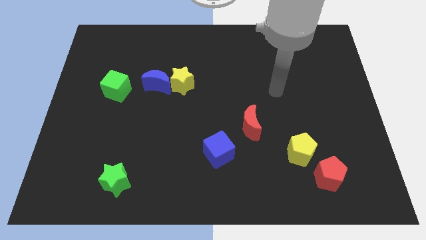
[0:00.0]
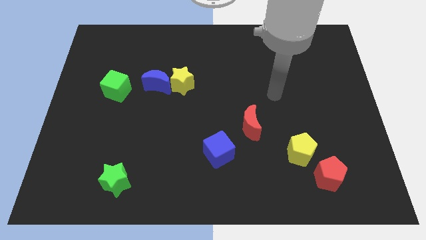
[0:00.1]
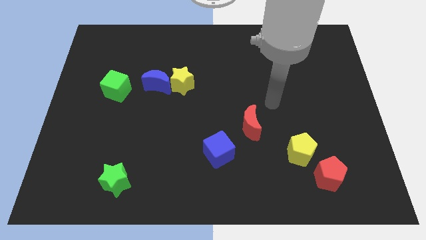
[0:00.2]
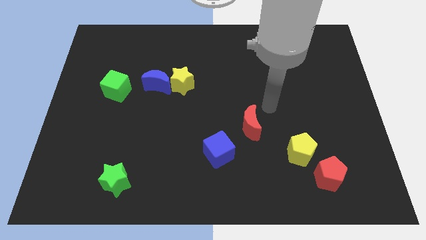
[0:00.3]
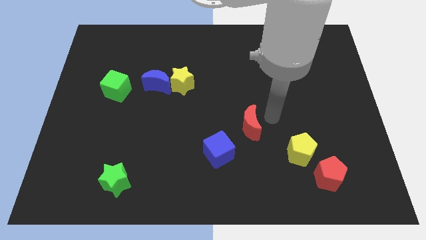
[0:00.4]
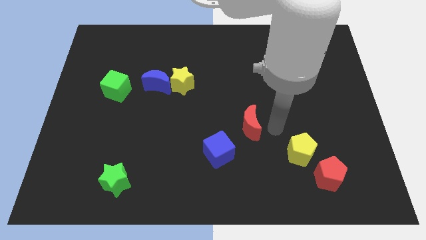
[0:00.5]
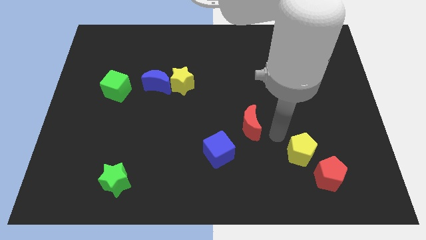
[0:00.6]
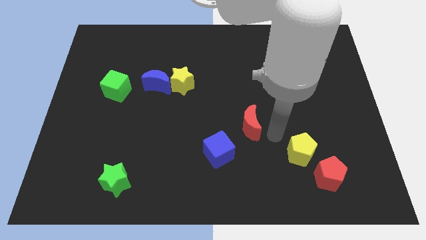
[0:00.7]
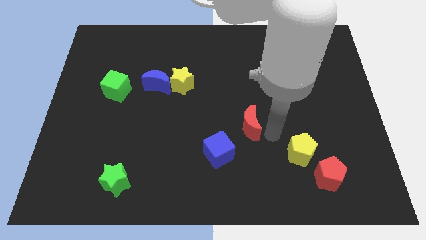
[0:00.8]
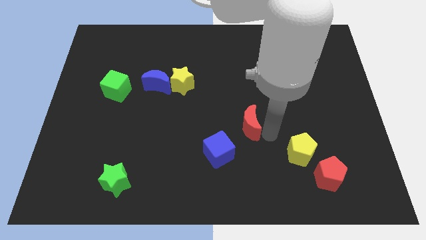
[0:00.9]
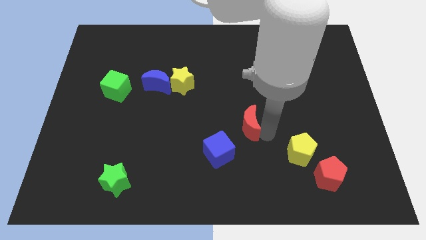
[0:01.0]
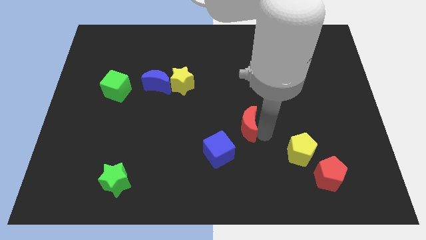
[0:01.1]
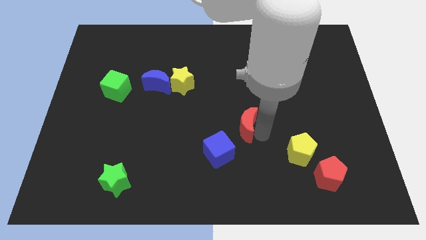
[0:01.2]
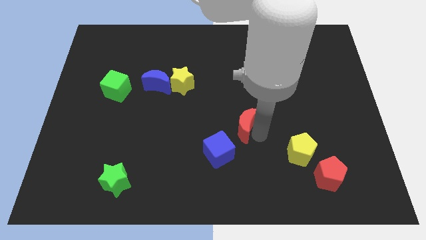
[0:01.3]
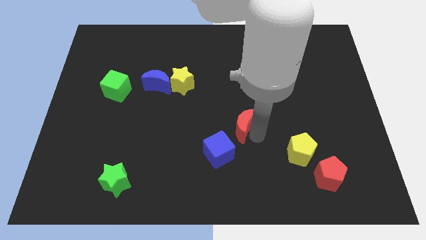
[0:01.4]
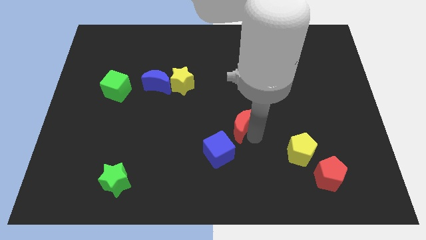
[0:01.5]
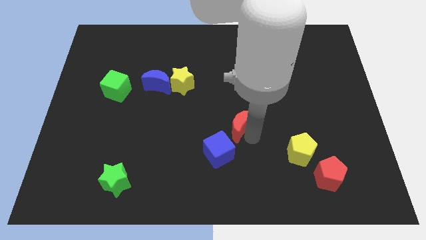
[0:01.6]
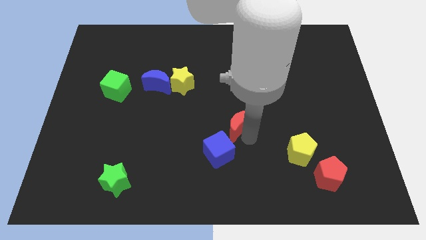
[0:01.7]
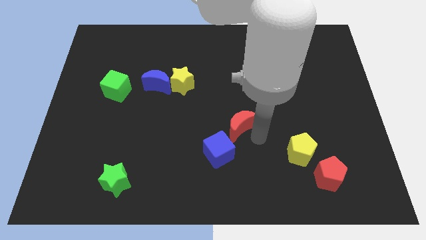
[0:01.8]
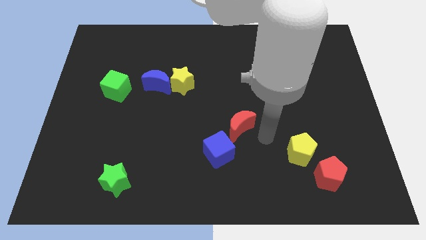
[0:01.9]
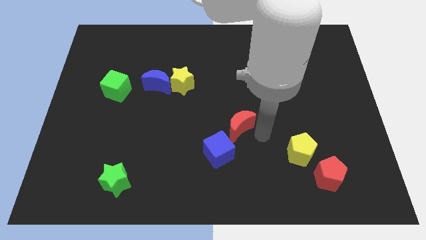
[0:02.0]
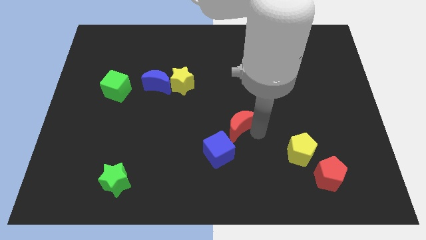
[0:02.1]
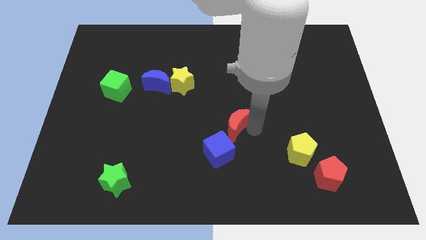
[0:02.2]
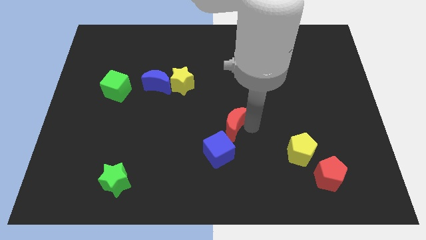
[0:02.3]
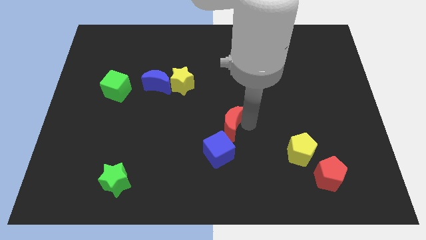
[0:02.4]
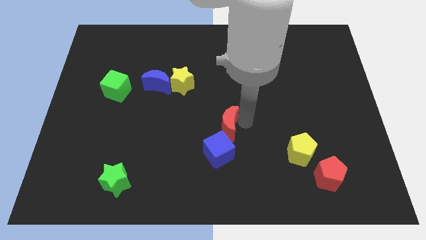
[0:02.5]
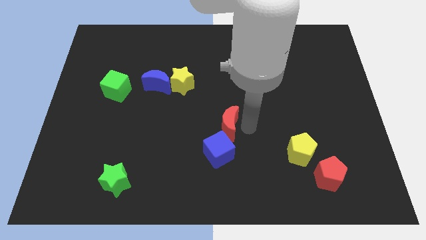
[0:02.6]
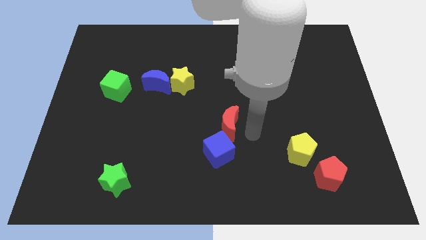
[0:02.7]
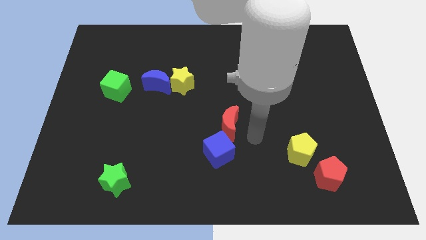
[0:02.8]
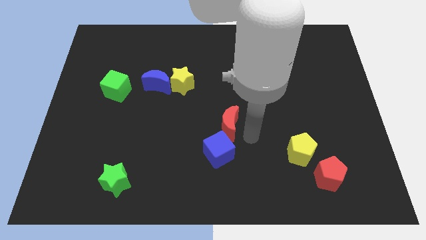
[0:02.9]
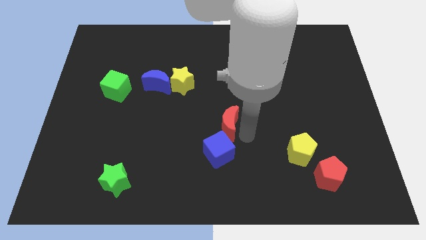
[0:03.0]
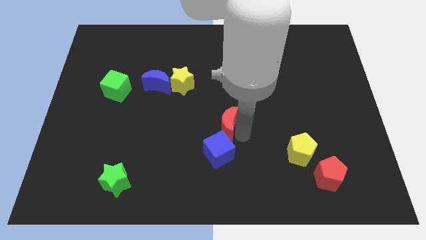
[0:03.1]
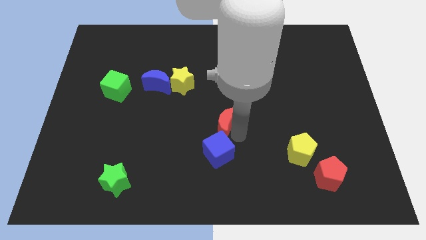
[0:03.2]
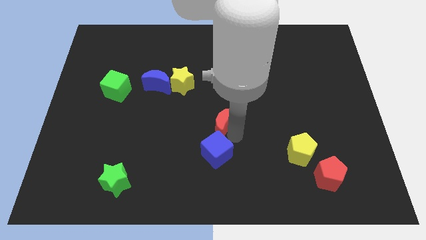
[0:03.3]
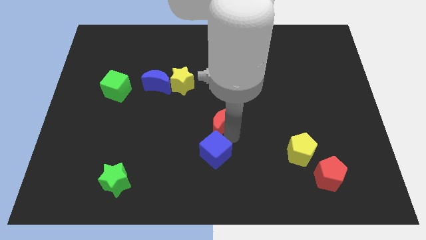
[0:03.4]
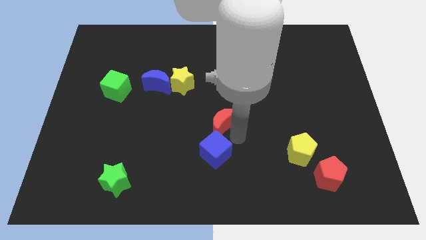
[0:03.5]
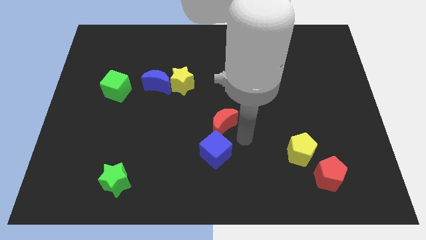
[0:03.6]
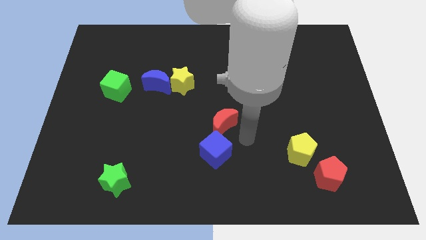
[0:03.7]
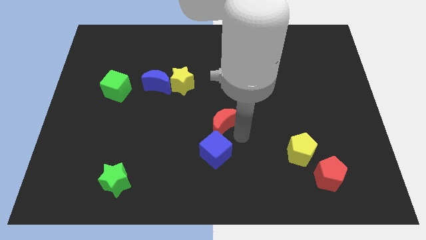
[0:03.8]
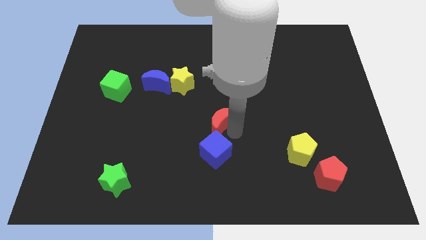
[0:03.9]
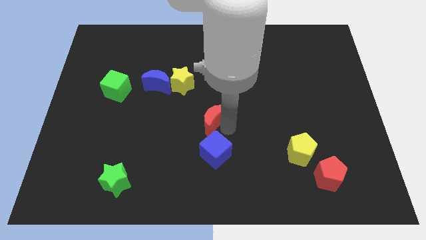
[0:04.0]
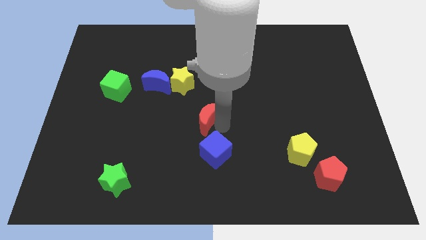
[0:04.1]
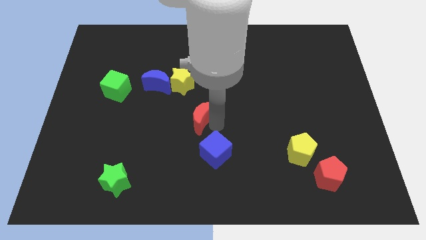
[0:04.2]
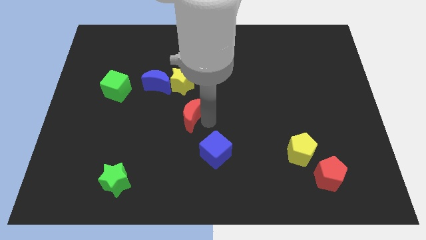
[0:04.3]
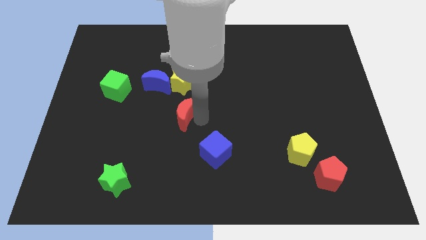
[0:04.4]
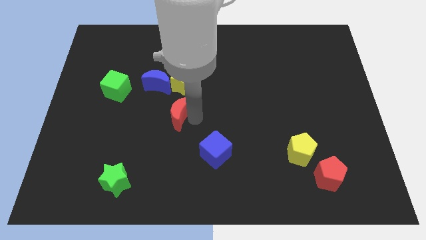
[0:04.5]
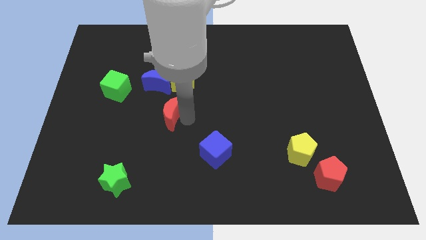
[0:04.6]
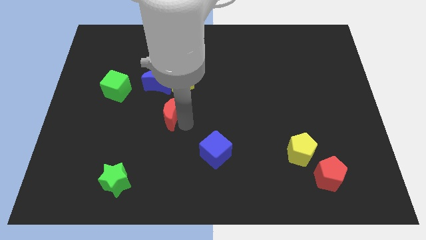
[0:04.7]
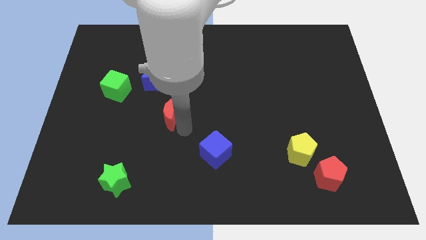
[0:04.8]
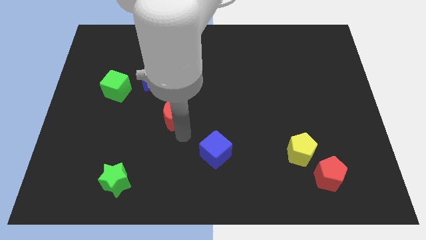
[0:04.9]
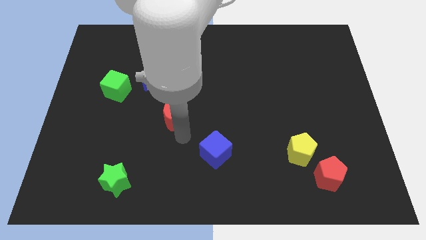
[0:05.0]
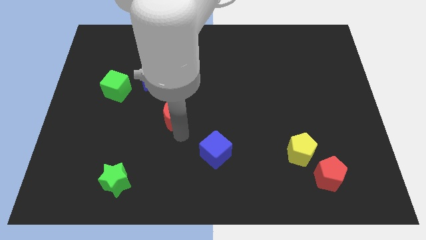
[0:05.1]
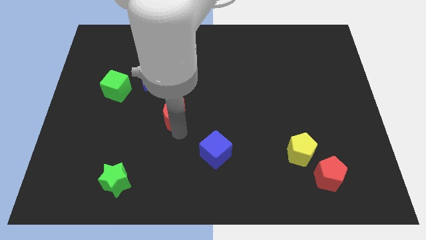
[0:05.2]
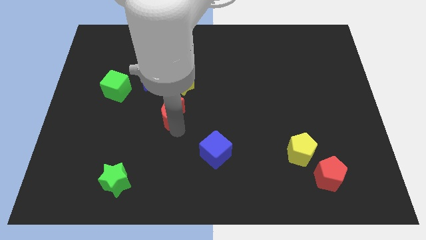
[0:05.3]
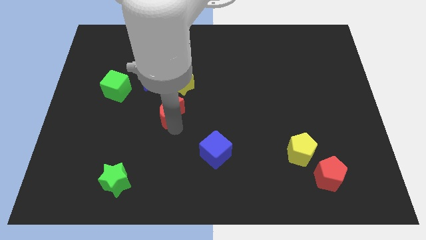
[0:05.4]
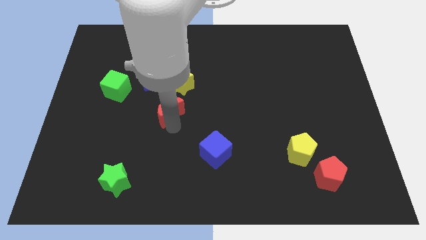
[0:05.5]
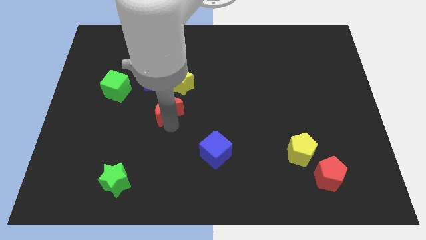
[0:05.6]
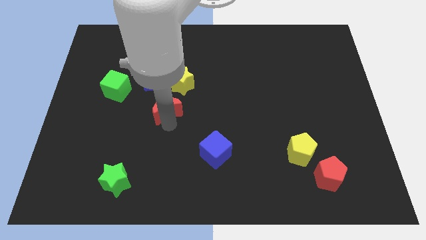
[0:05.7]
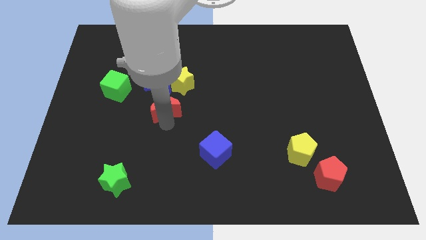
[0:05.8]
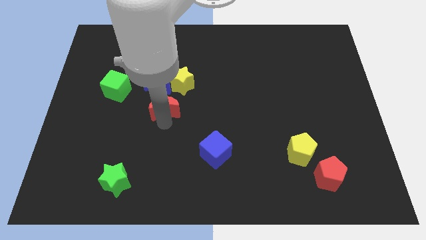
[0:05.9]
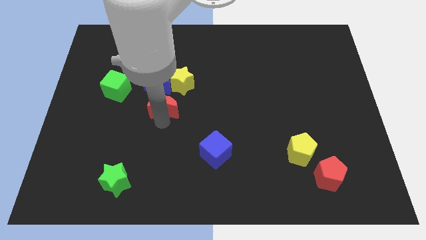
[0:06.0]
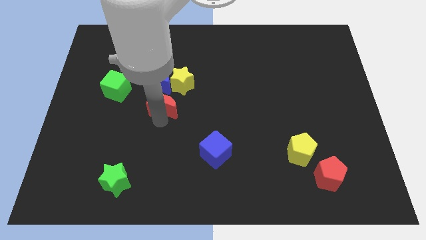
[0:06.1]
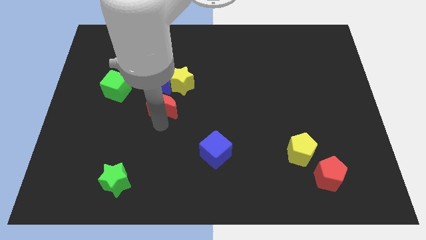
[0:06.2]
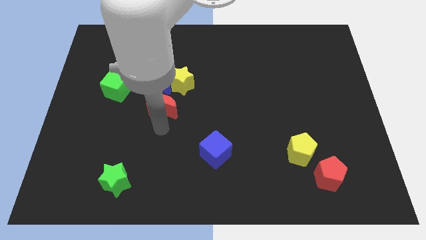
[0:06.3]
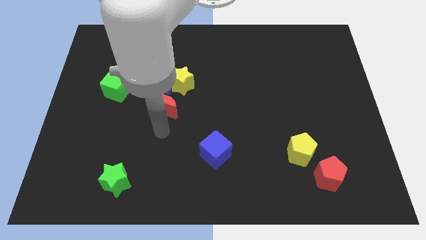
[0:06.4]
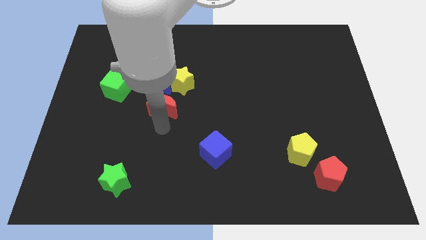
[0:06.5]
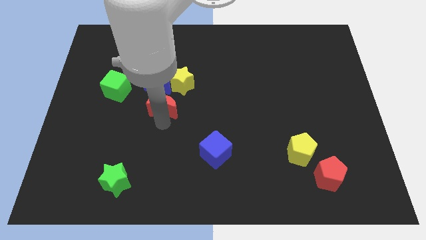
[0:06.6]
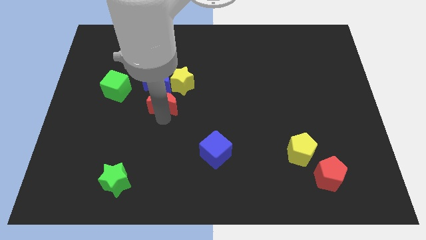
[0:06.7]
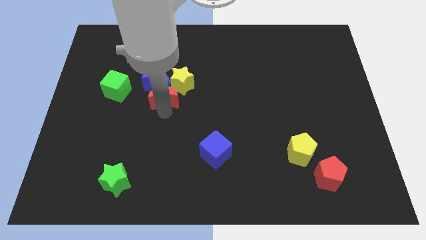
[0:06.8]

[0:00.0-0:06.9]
put the red moon close to the blue moon

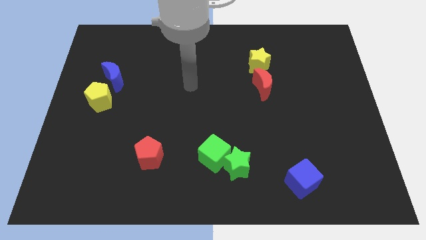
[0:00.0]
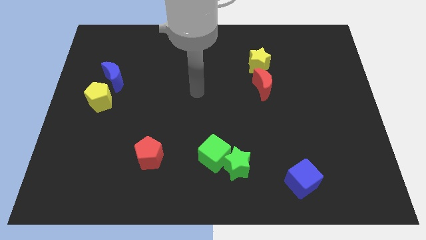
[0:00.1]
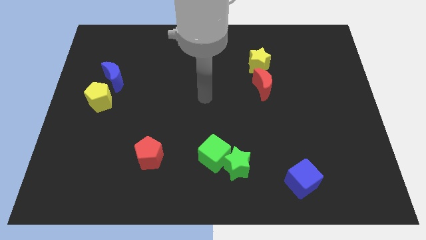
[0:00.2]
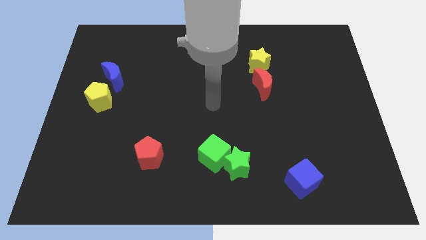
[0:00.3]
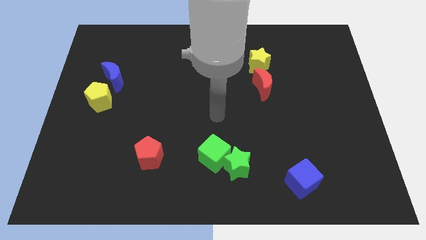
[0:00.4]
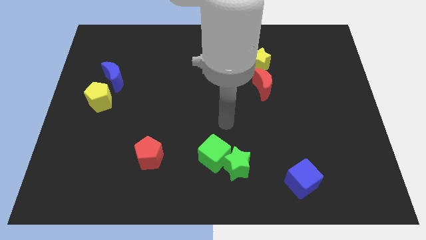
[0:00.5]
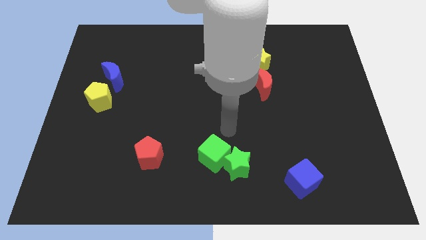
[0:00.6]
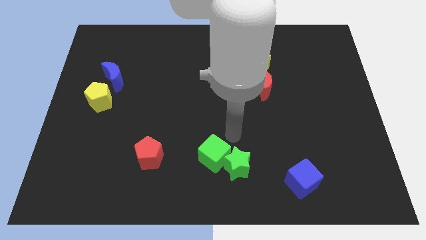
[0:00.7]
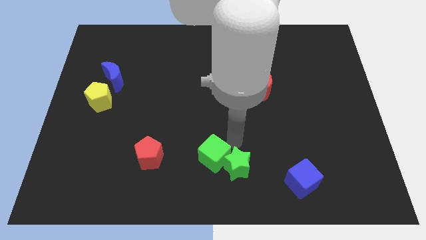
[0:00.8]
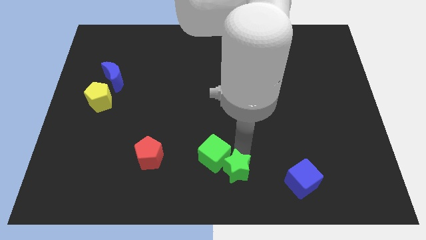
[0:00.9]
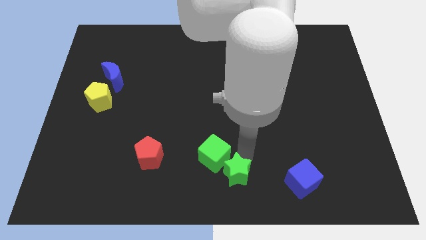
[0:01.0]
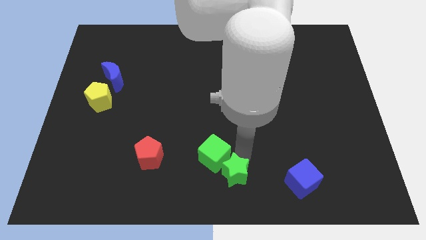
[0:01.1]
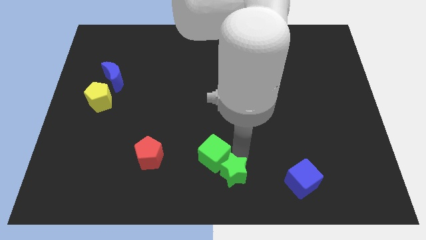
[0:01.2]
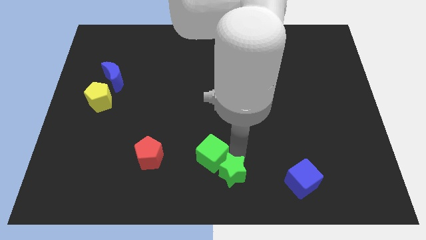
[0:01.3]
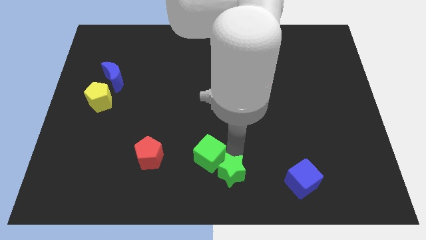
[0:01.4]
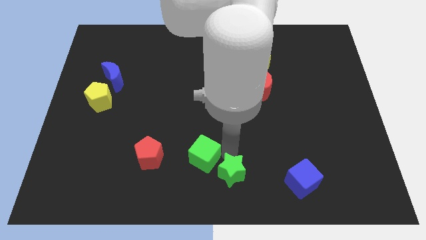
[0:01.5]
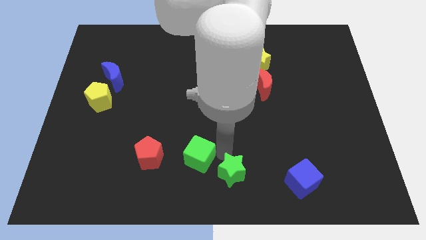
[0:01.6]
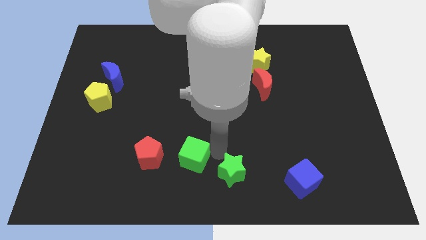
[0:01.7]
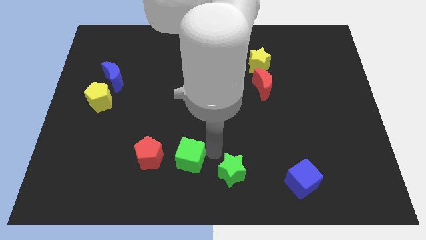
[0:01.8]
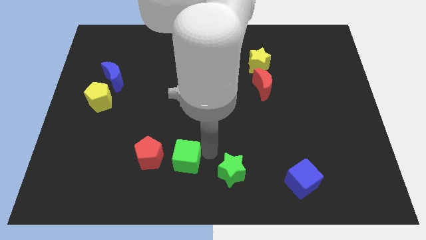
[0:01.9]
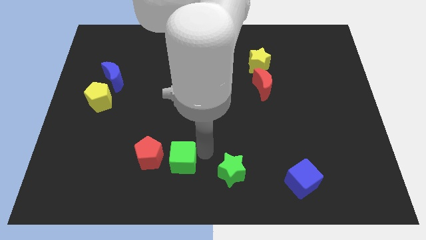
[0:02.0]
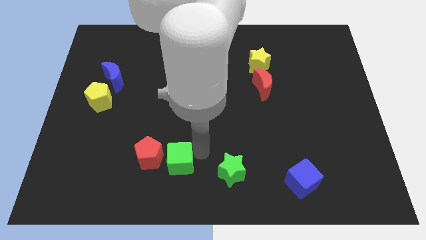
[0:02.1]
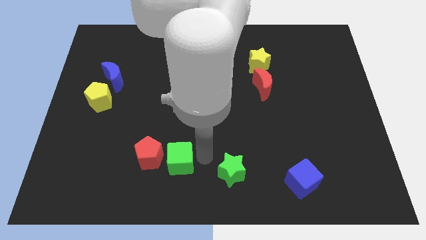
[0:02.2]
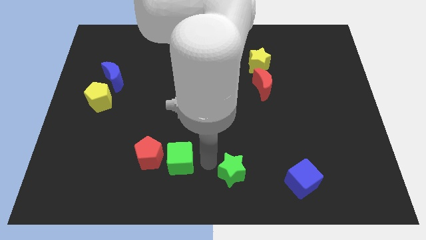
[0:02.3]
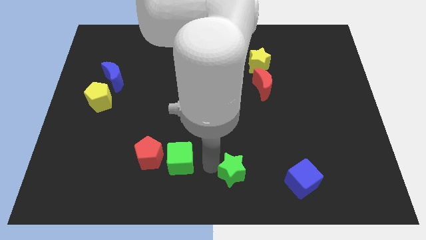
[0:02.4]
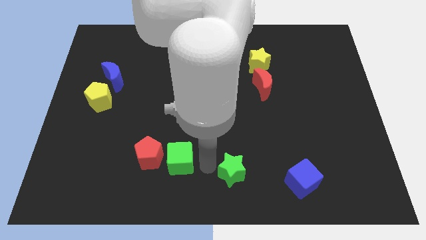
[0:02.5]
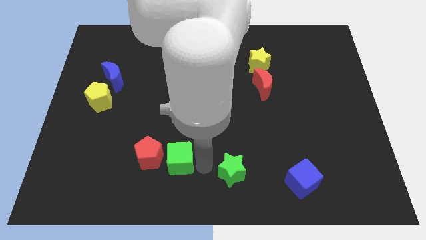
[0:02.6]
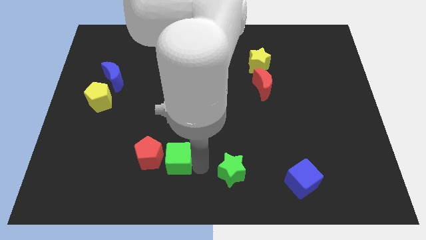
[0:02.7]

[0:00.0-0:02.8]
push the green cube next to the red pentagon
